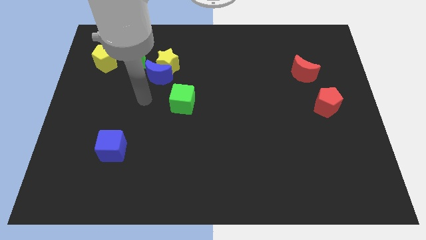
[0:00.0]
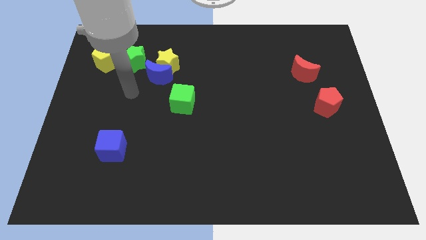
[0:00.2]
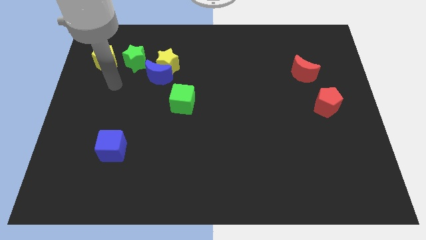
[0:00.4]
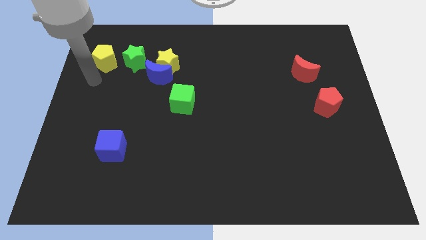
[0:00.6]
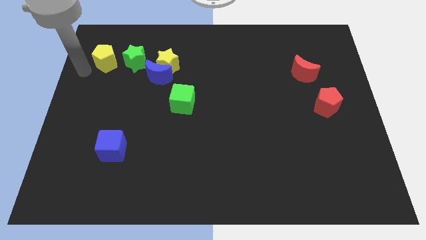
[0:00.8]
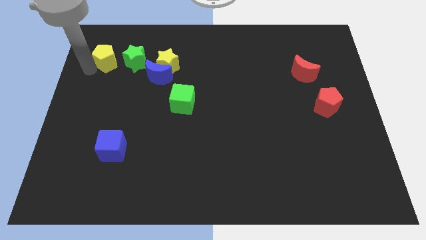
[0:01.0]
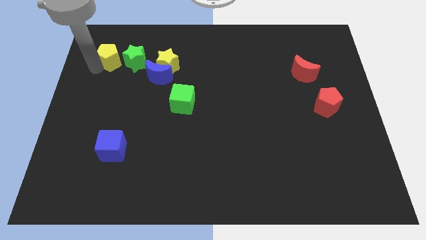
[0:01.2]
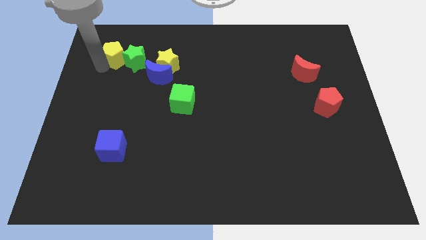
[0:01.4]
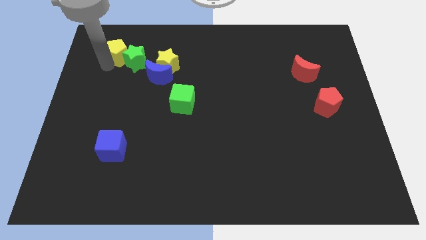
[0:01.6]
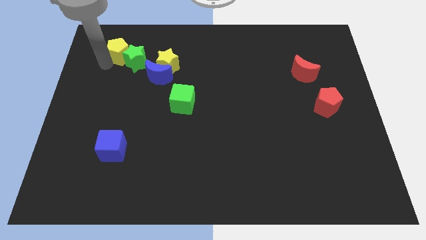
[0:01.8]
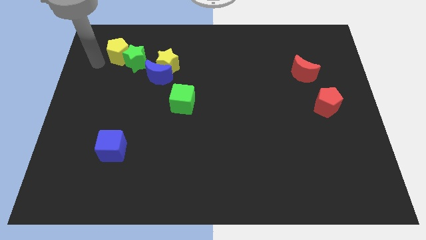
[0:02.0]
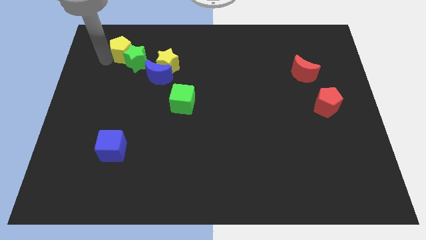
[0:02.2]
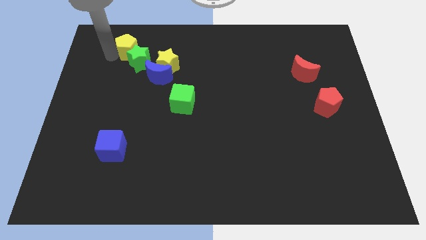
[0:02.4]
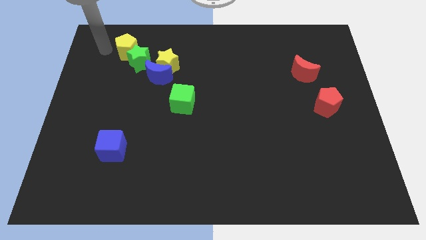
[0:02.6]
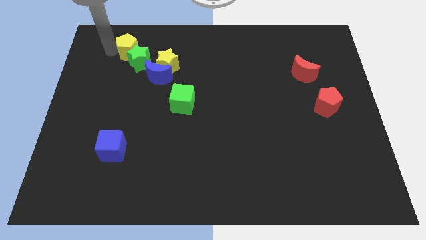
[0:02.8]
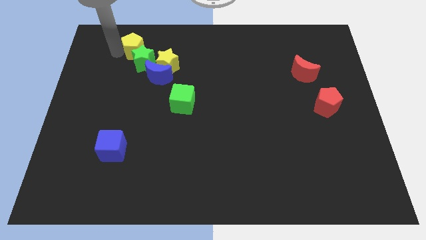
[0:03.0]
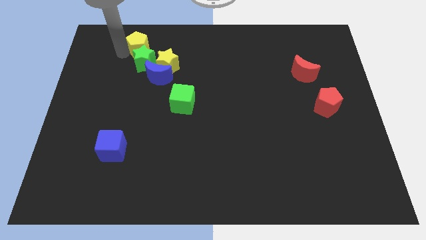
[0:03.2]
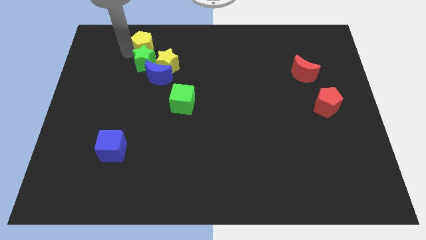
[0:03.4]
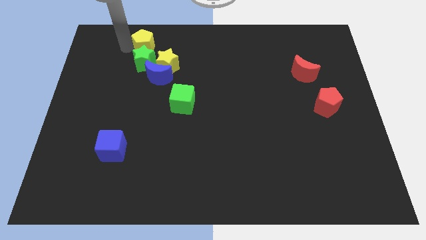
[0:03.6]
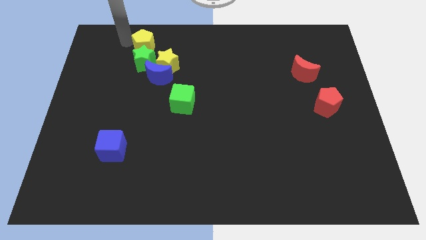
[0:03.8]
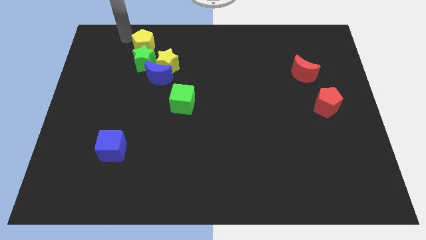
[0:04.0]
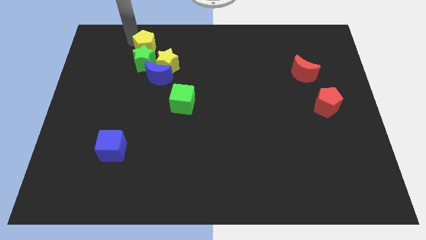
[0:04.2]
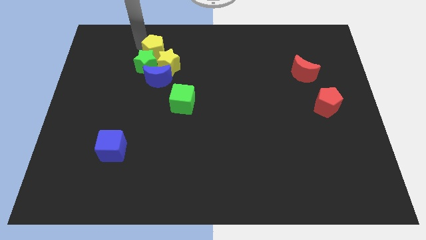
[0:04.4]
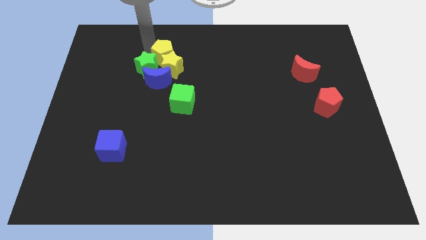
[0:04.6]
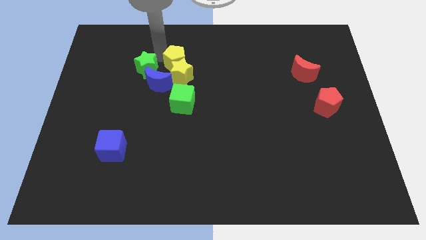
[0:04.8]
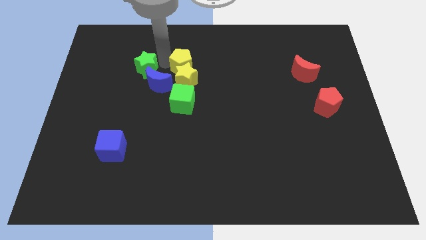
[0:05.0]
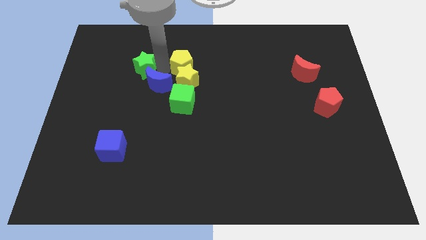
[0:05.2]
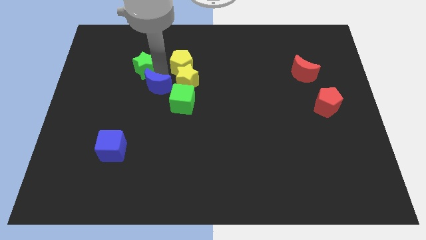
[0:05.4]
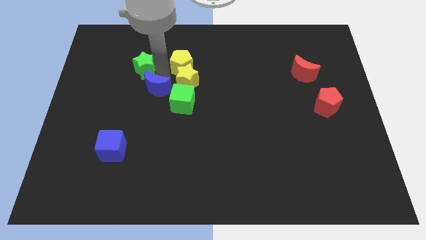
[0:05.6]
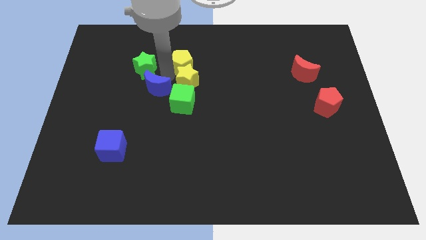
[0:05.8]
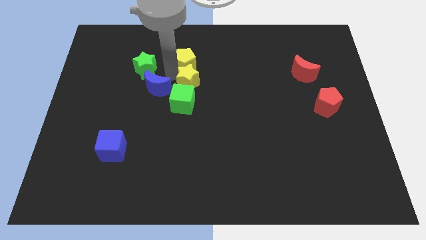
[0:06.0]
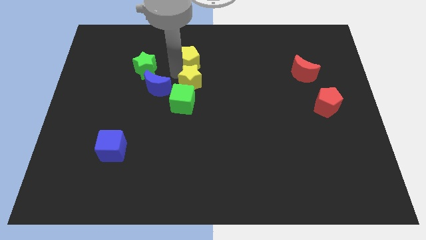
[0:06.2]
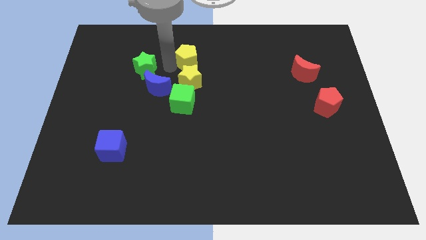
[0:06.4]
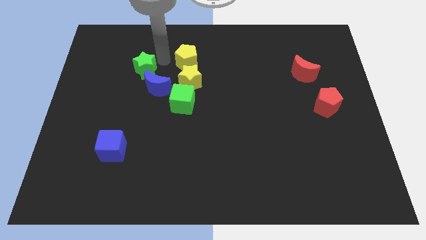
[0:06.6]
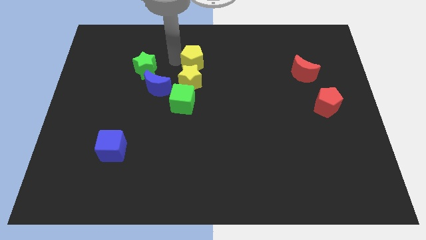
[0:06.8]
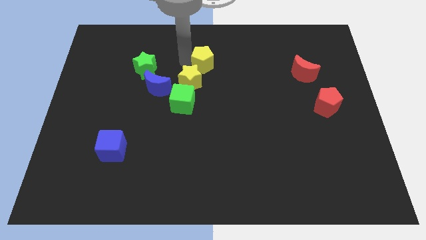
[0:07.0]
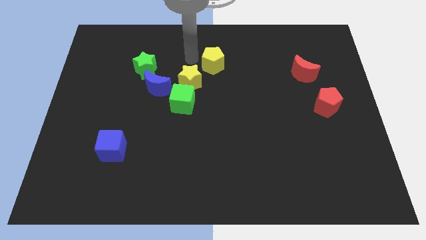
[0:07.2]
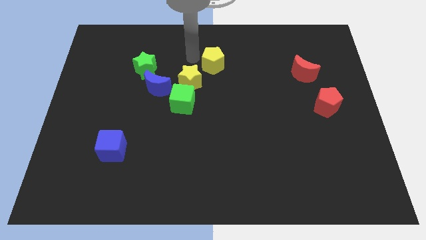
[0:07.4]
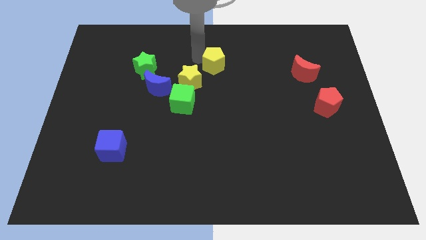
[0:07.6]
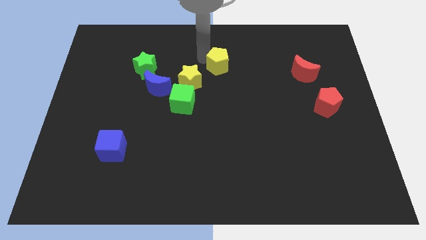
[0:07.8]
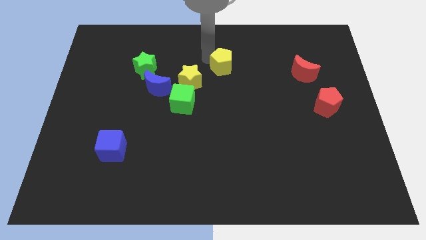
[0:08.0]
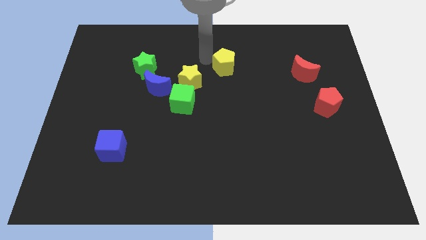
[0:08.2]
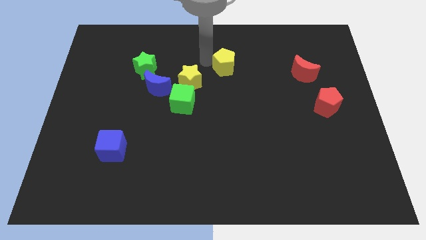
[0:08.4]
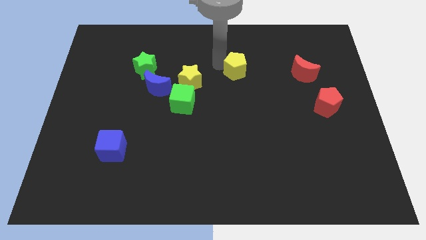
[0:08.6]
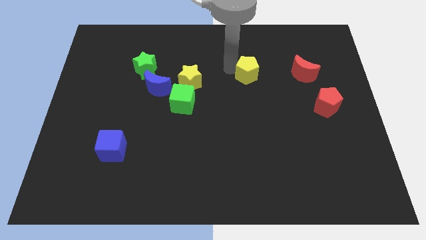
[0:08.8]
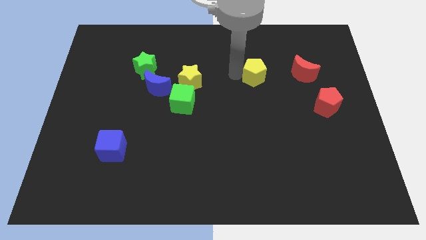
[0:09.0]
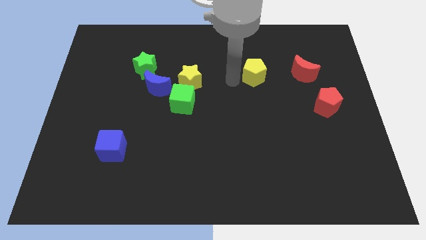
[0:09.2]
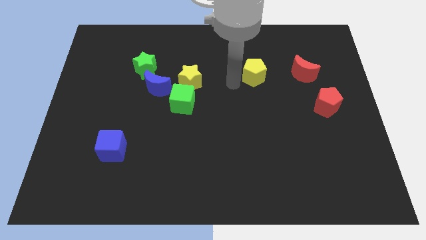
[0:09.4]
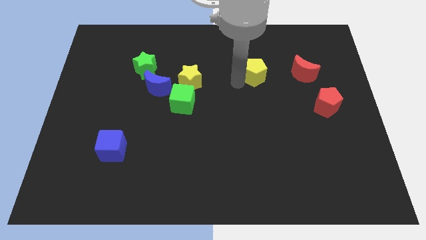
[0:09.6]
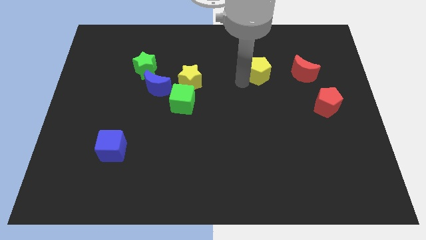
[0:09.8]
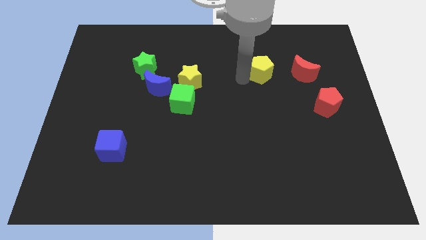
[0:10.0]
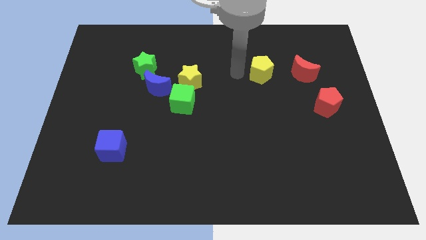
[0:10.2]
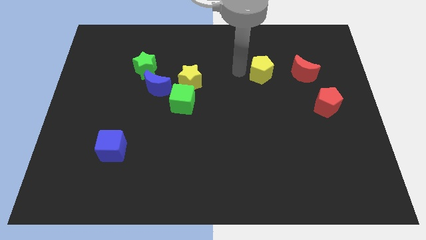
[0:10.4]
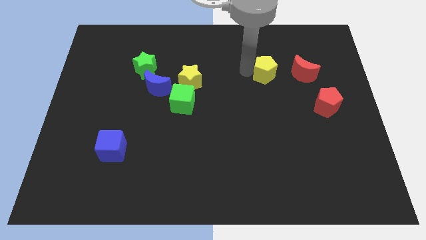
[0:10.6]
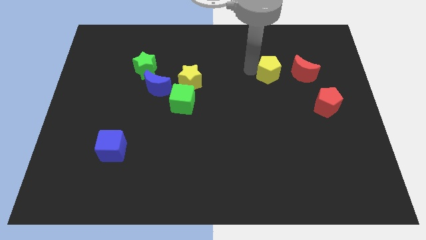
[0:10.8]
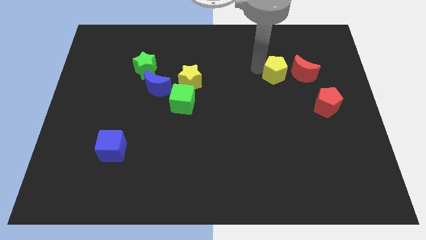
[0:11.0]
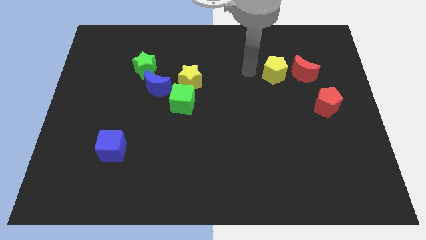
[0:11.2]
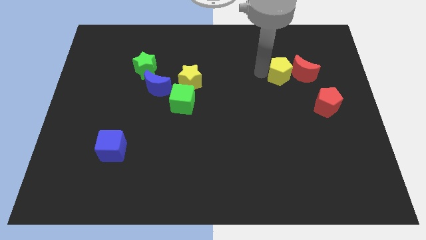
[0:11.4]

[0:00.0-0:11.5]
move the yellow pentagon towards the red moon

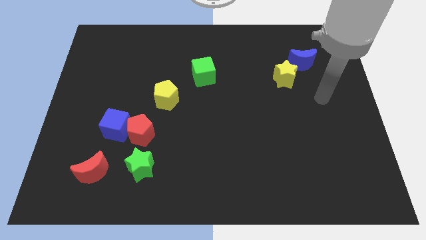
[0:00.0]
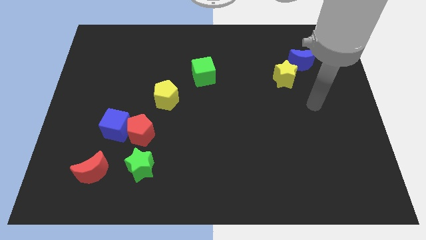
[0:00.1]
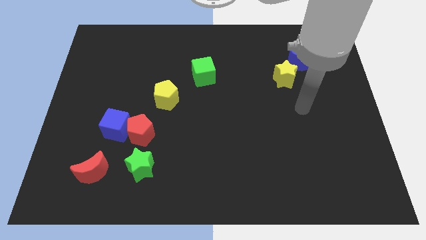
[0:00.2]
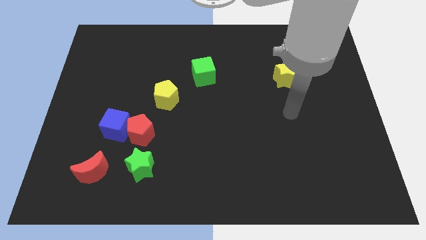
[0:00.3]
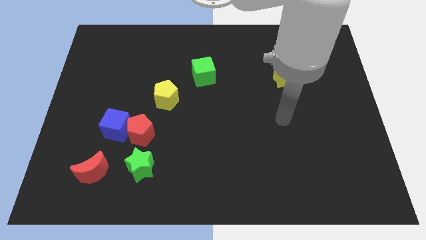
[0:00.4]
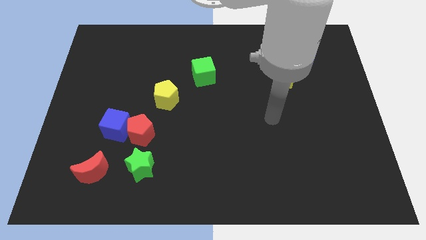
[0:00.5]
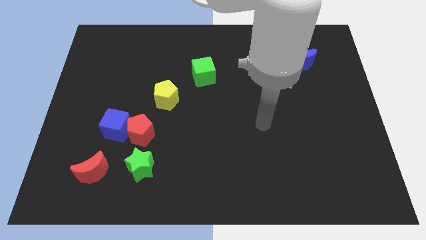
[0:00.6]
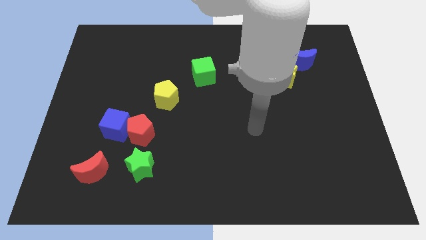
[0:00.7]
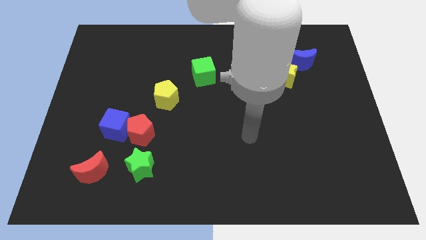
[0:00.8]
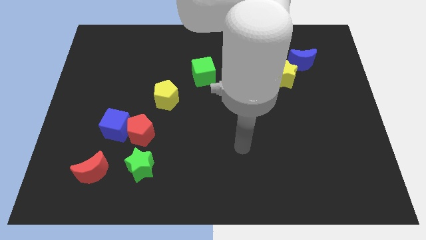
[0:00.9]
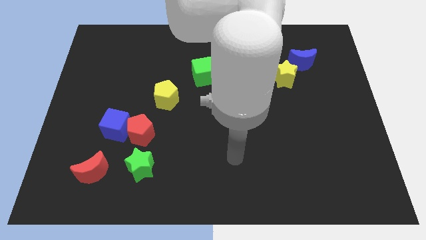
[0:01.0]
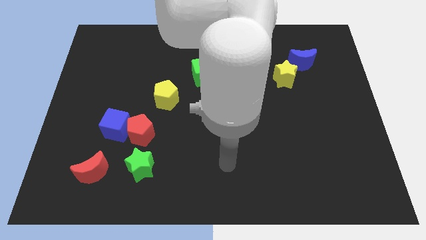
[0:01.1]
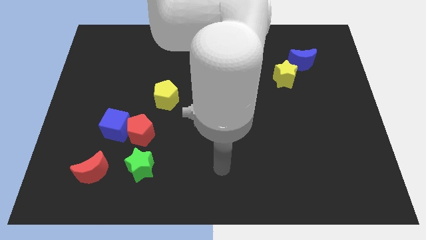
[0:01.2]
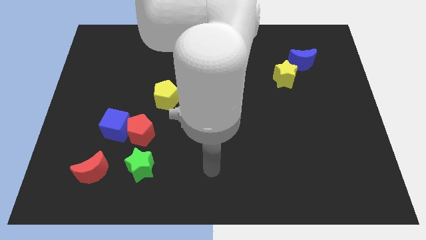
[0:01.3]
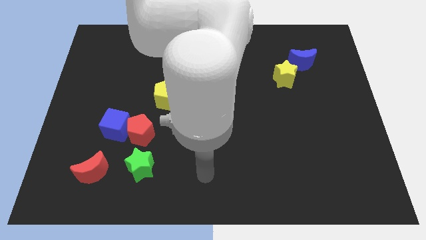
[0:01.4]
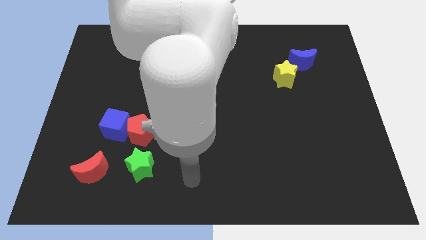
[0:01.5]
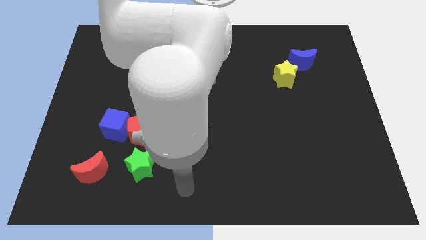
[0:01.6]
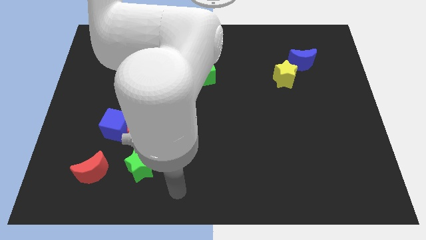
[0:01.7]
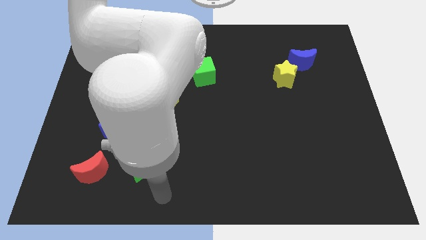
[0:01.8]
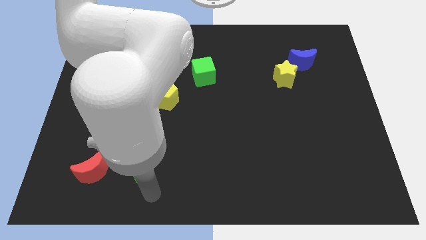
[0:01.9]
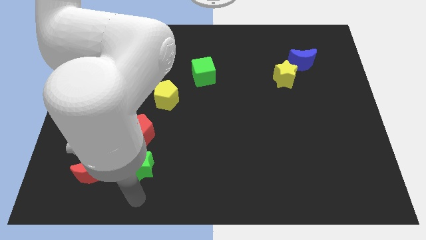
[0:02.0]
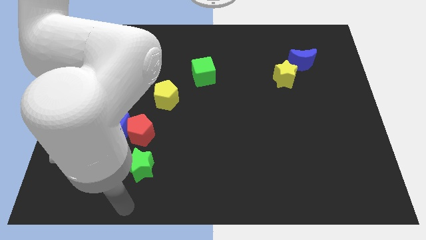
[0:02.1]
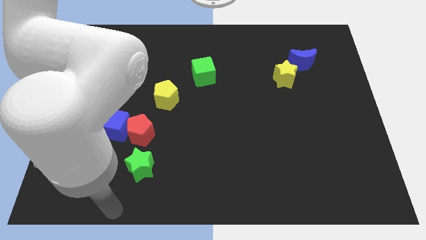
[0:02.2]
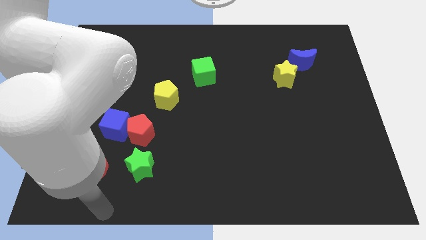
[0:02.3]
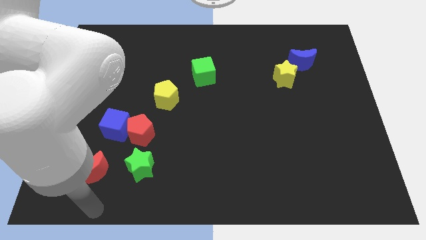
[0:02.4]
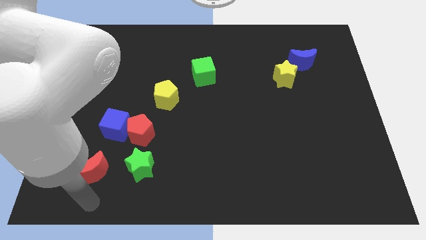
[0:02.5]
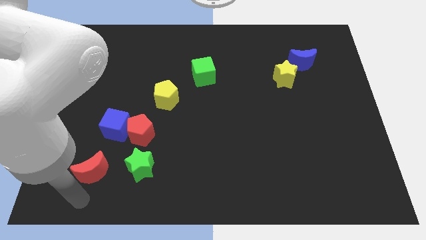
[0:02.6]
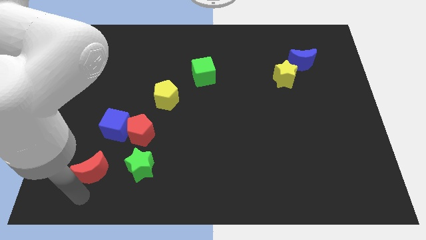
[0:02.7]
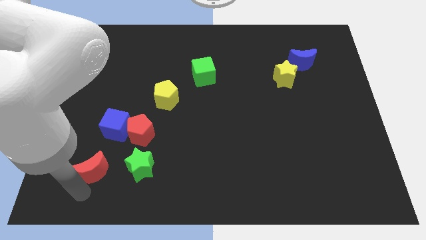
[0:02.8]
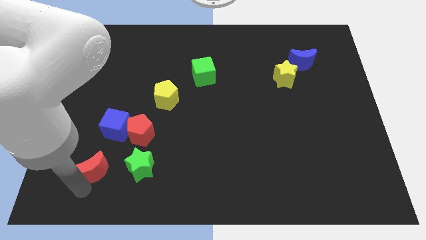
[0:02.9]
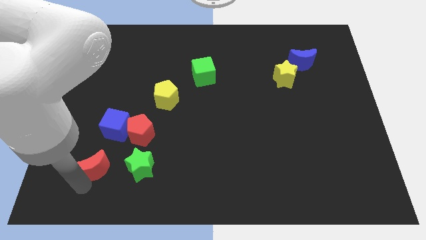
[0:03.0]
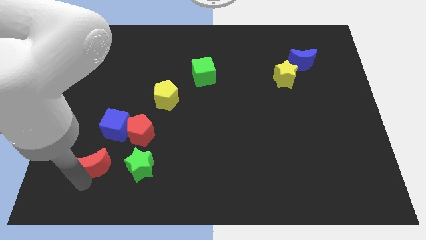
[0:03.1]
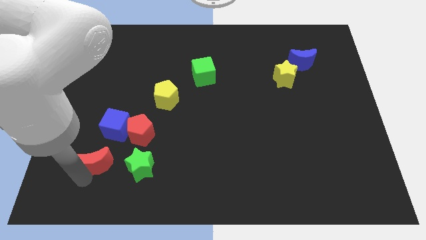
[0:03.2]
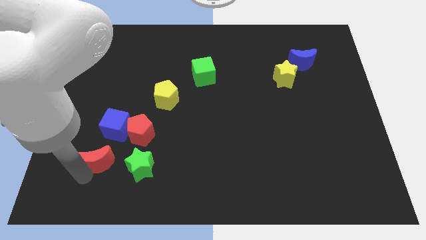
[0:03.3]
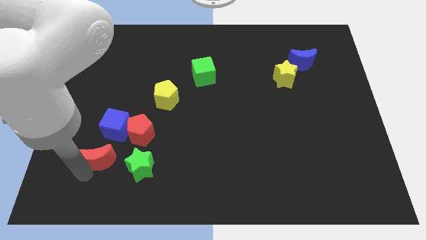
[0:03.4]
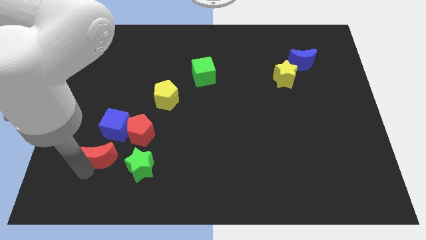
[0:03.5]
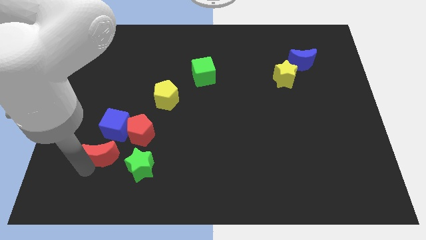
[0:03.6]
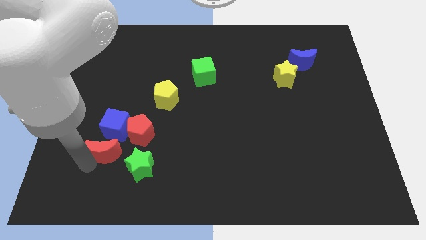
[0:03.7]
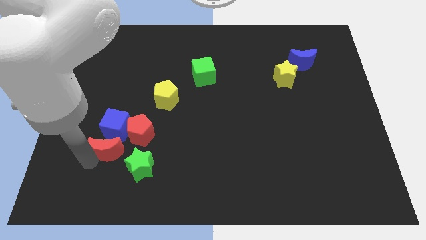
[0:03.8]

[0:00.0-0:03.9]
push the red moon to the blue cube
